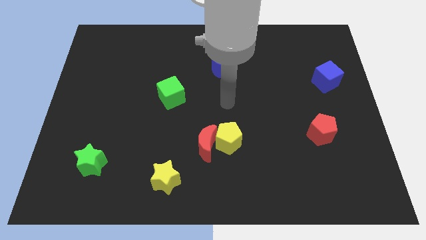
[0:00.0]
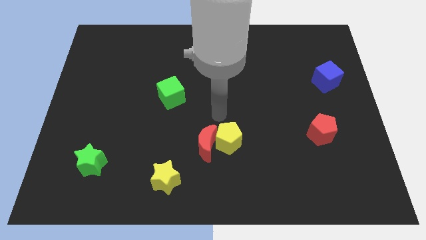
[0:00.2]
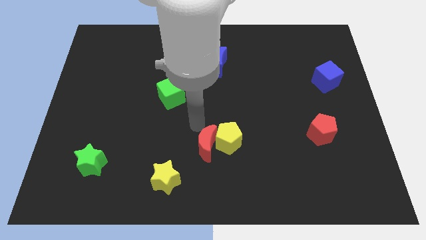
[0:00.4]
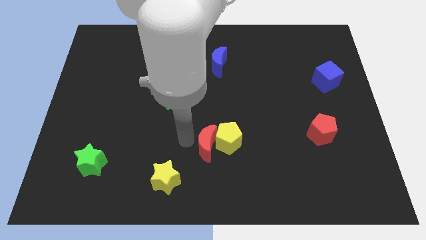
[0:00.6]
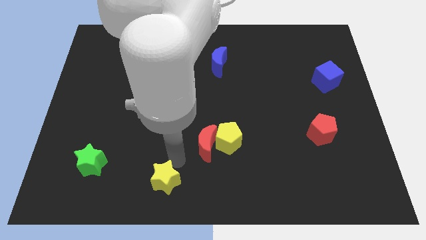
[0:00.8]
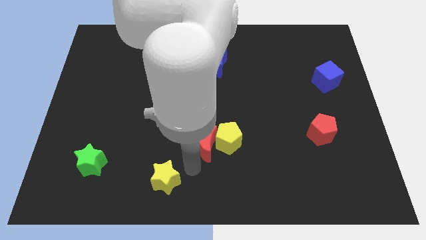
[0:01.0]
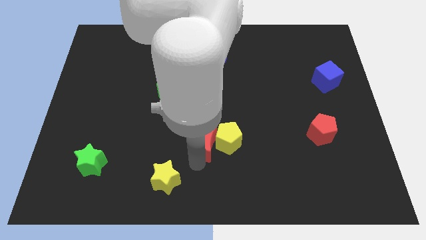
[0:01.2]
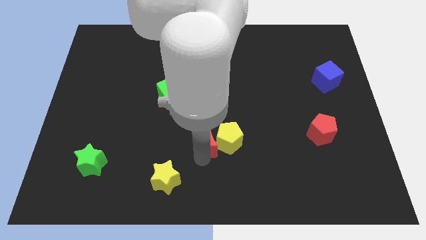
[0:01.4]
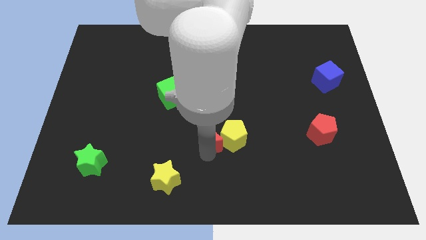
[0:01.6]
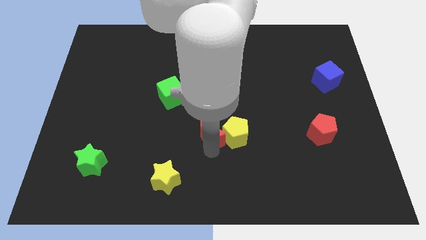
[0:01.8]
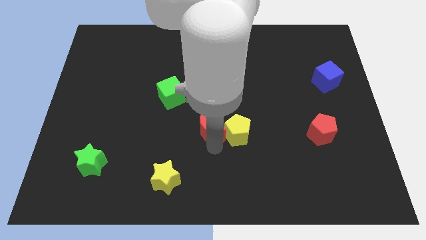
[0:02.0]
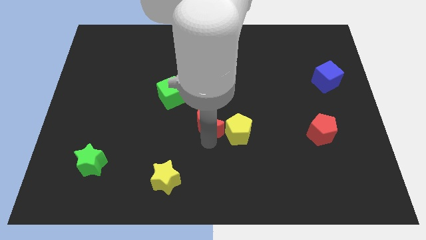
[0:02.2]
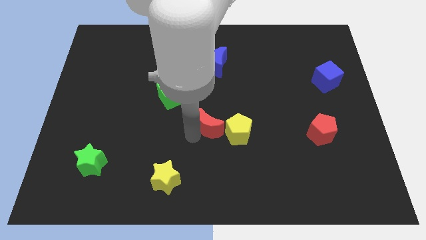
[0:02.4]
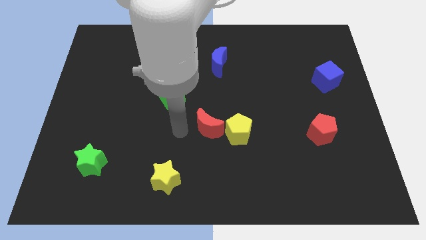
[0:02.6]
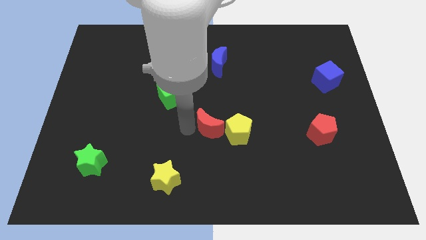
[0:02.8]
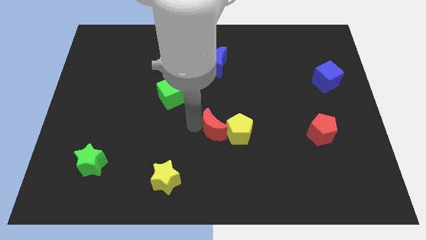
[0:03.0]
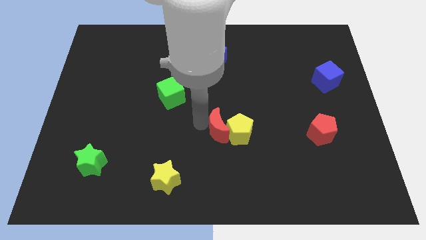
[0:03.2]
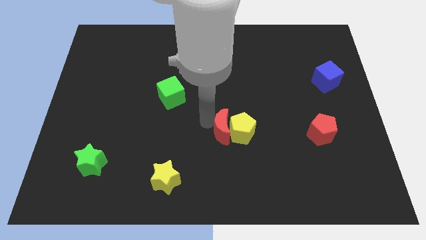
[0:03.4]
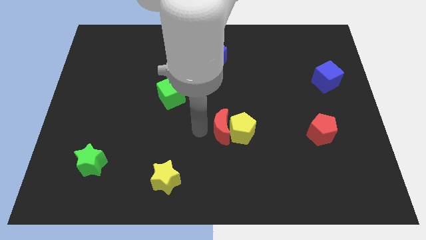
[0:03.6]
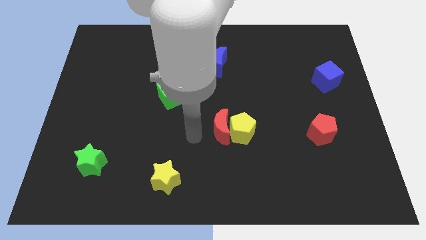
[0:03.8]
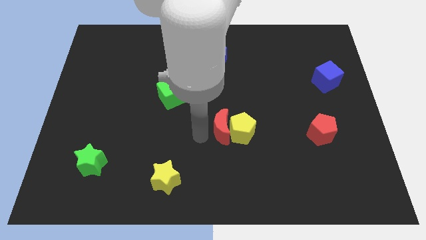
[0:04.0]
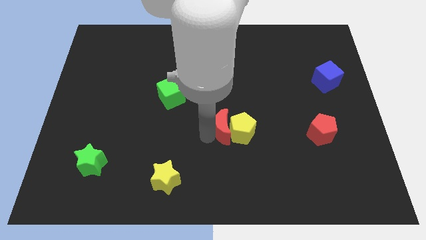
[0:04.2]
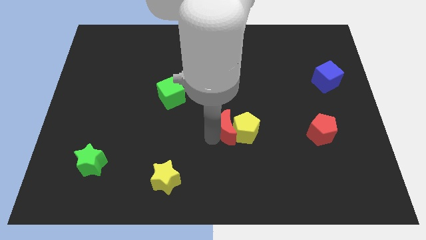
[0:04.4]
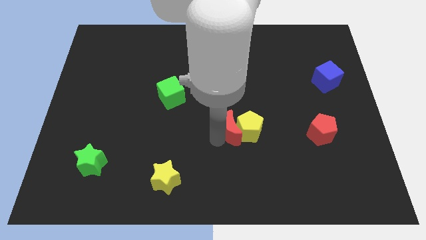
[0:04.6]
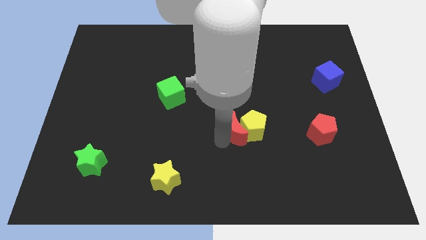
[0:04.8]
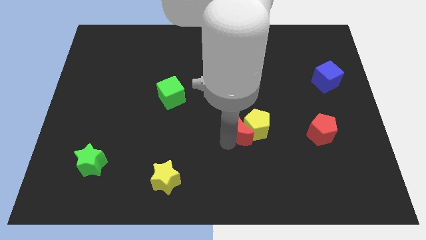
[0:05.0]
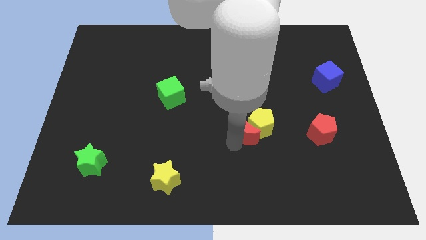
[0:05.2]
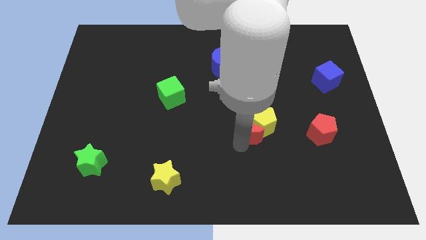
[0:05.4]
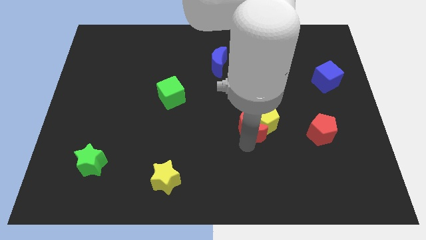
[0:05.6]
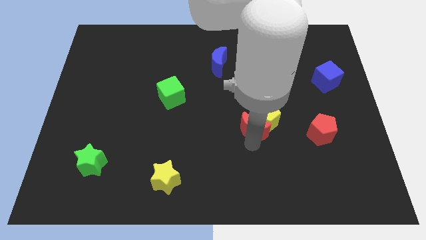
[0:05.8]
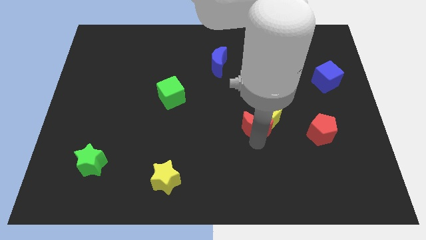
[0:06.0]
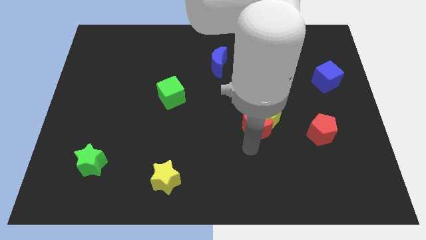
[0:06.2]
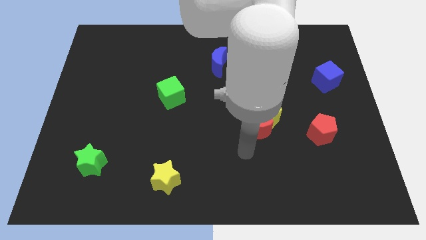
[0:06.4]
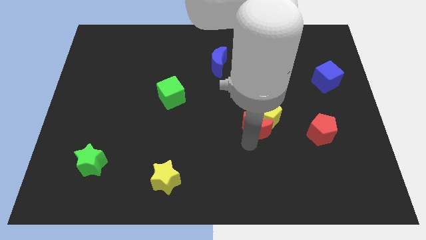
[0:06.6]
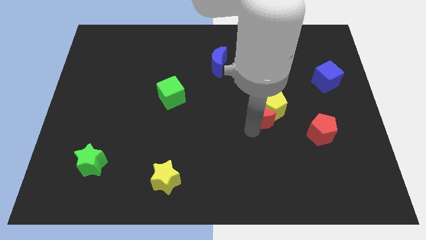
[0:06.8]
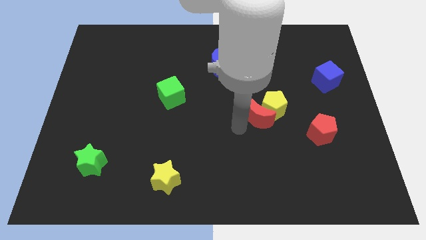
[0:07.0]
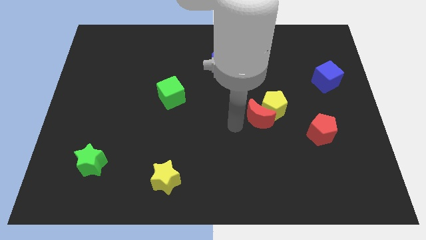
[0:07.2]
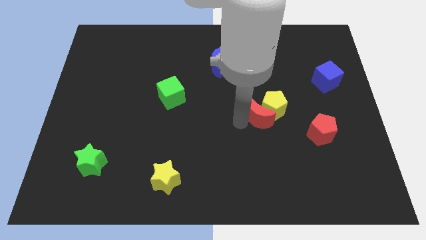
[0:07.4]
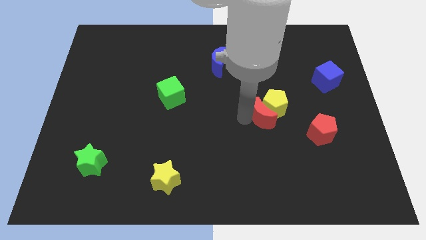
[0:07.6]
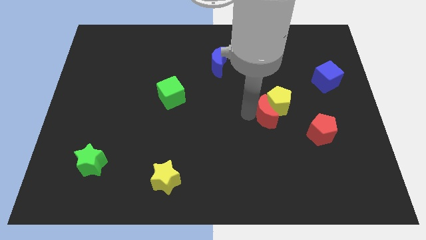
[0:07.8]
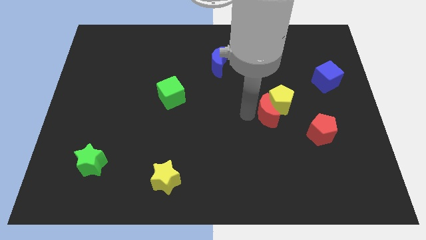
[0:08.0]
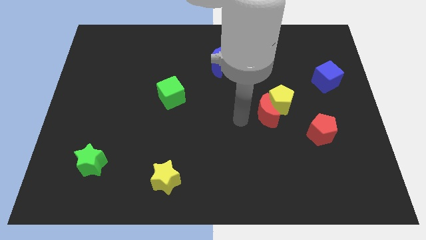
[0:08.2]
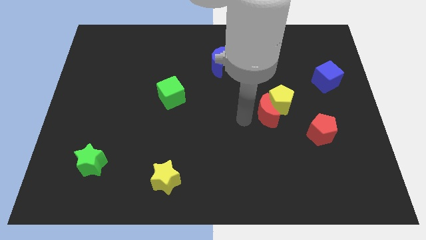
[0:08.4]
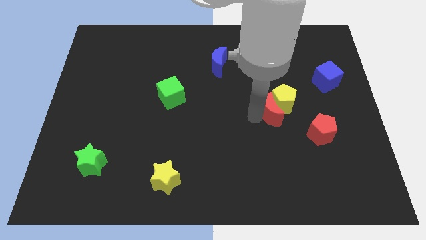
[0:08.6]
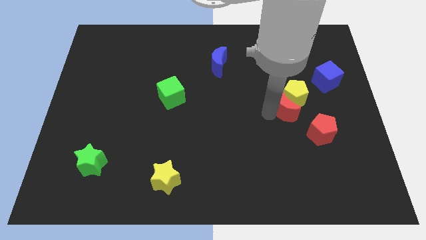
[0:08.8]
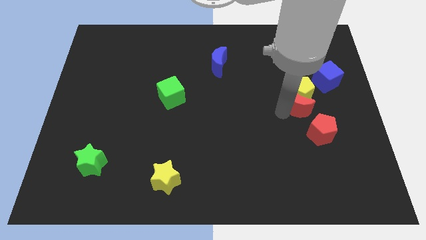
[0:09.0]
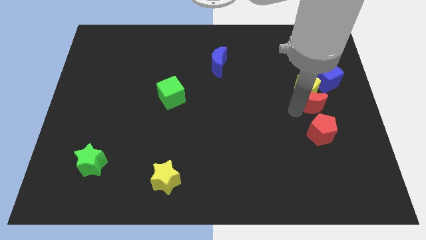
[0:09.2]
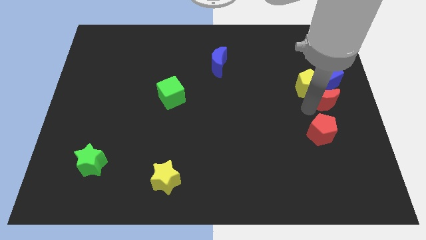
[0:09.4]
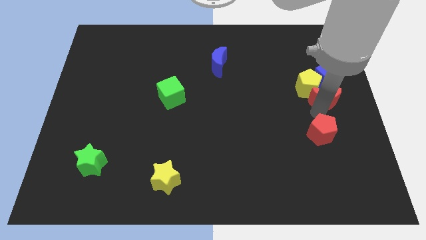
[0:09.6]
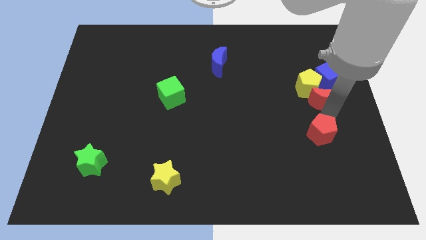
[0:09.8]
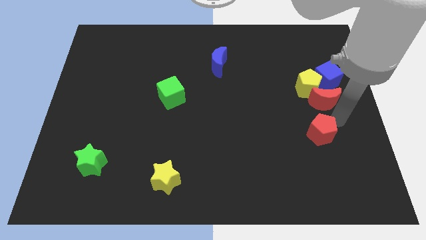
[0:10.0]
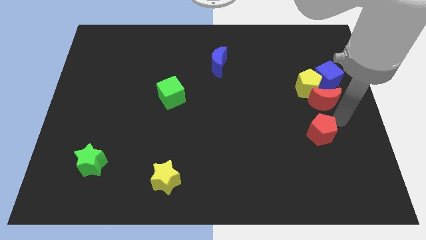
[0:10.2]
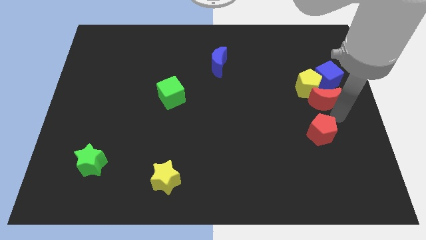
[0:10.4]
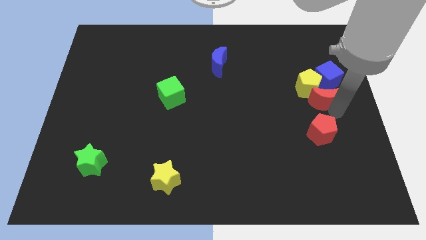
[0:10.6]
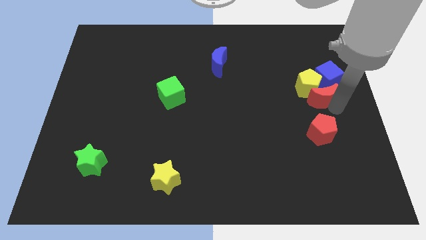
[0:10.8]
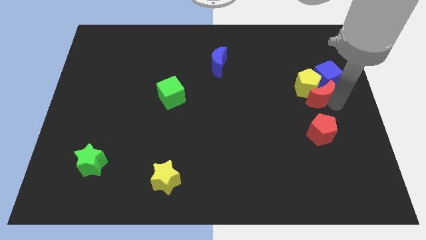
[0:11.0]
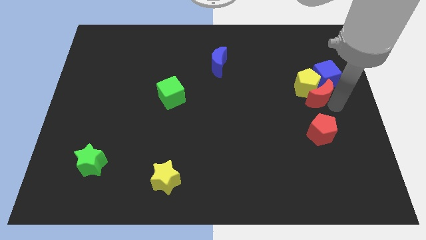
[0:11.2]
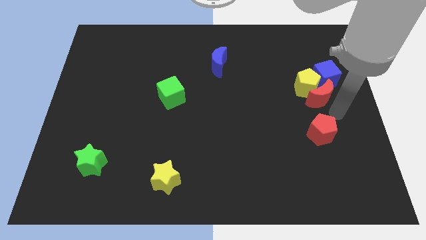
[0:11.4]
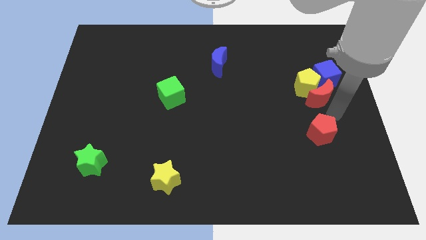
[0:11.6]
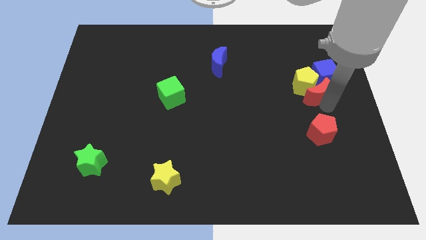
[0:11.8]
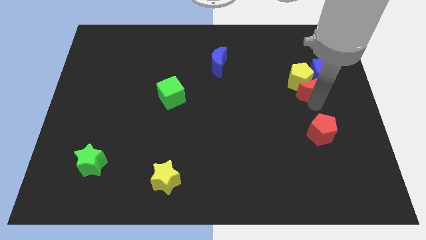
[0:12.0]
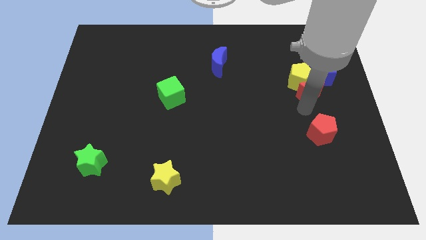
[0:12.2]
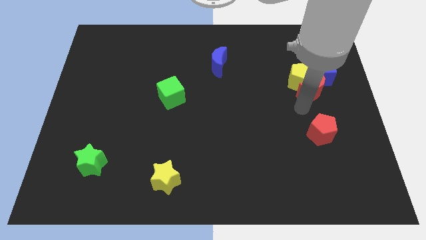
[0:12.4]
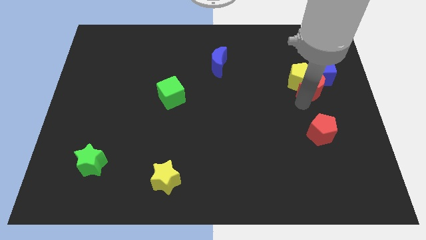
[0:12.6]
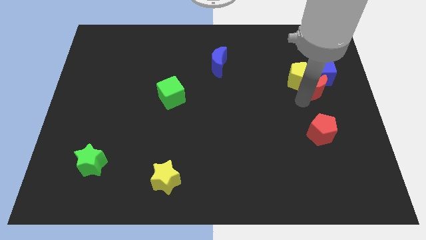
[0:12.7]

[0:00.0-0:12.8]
move the red moon next to the blue cube

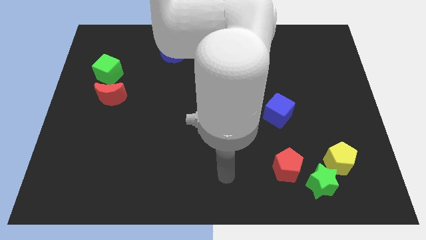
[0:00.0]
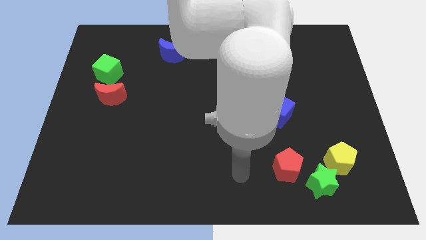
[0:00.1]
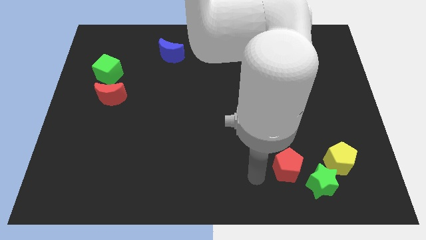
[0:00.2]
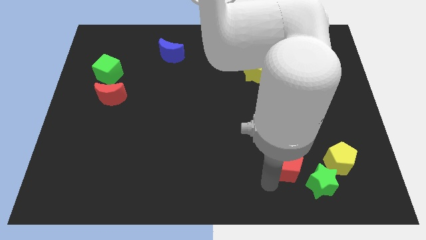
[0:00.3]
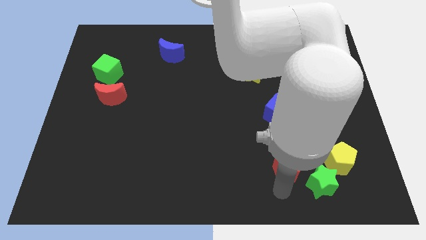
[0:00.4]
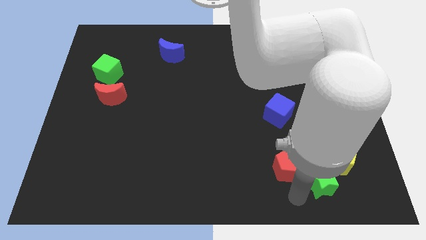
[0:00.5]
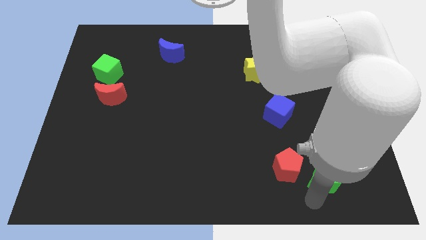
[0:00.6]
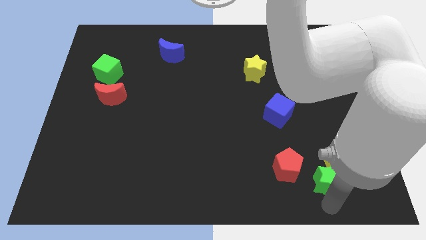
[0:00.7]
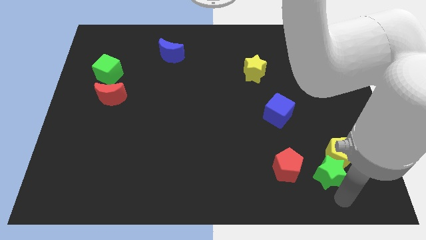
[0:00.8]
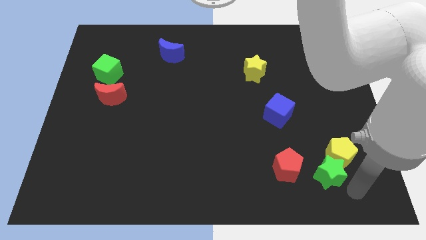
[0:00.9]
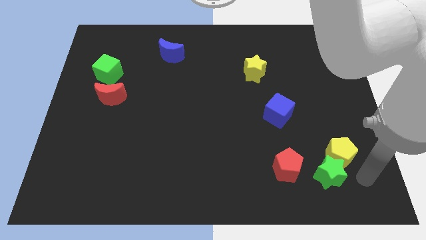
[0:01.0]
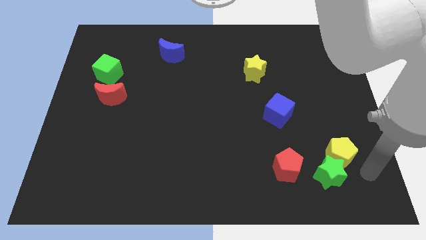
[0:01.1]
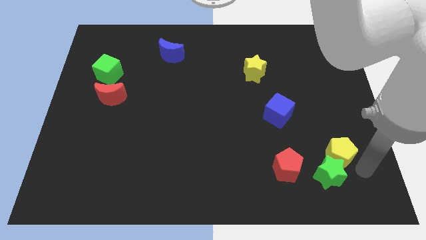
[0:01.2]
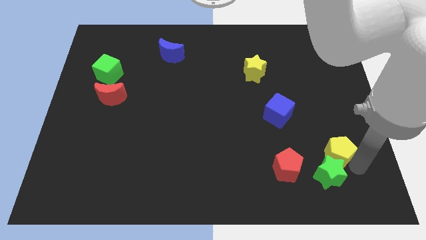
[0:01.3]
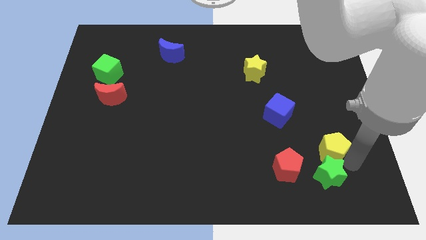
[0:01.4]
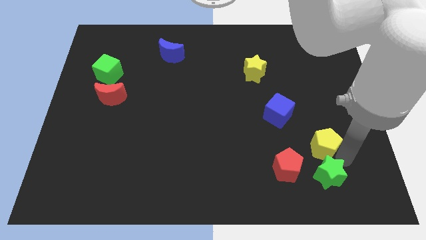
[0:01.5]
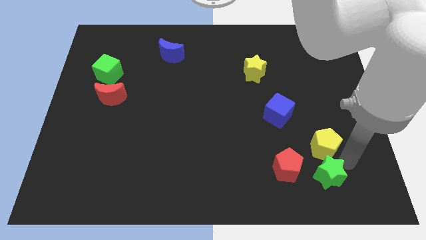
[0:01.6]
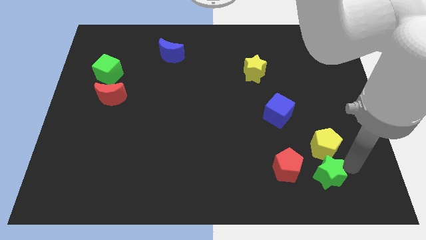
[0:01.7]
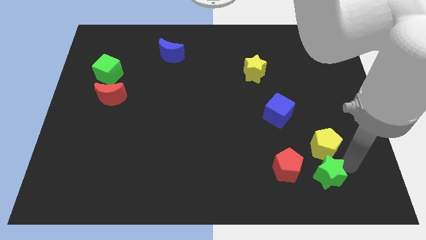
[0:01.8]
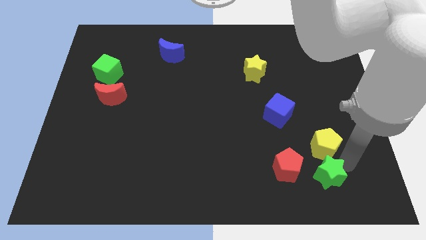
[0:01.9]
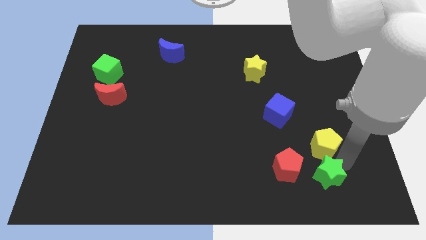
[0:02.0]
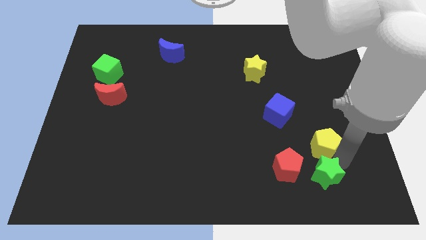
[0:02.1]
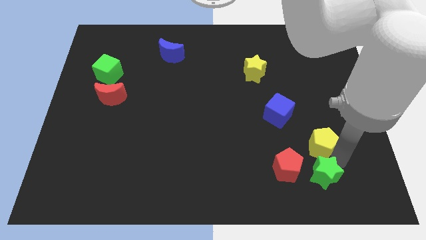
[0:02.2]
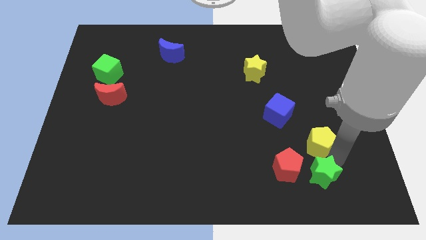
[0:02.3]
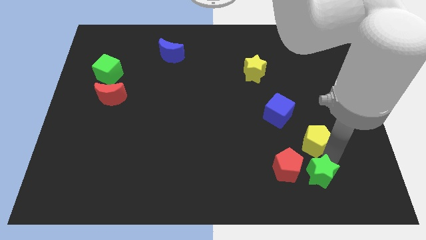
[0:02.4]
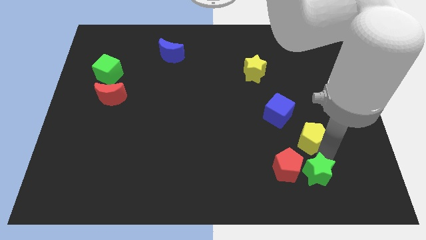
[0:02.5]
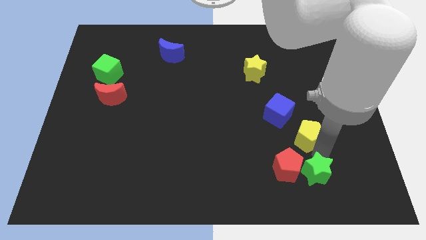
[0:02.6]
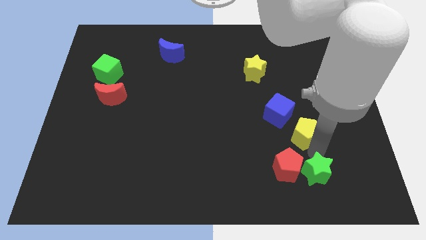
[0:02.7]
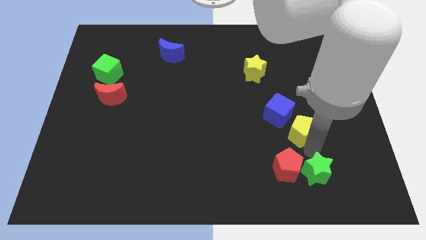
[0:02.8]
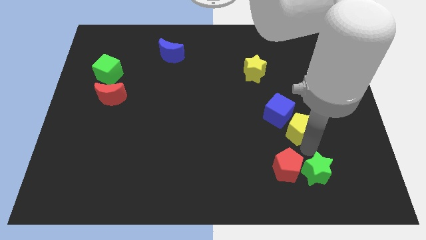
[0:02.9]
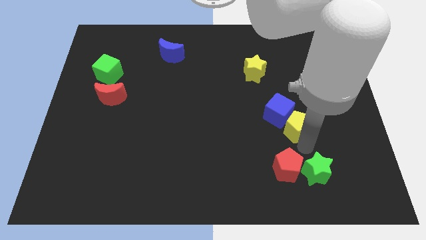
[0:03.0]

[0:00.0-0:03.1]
move the yellow pentagon close to the blue cube
